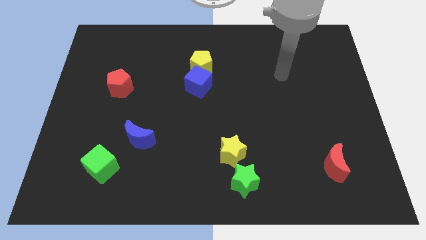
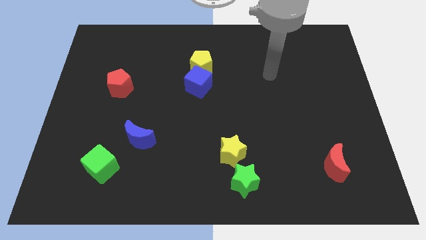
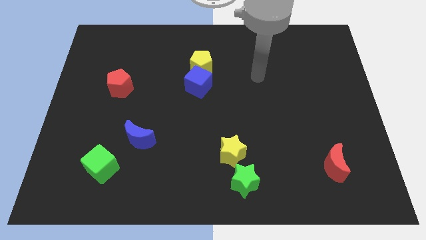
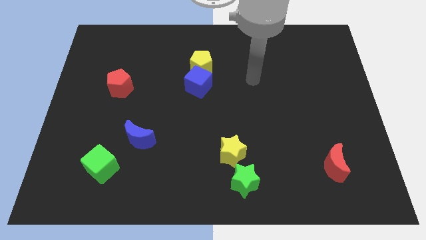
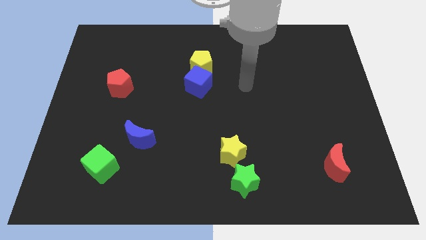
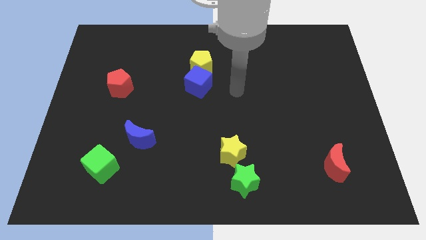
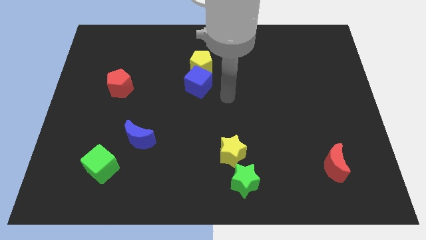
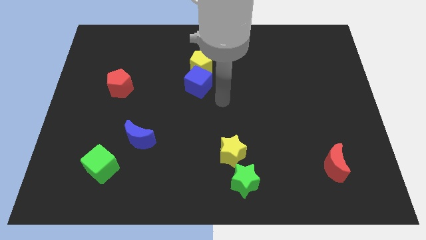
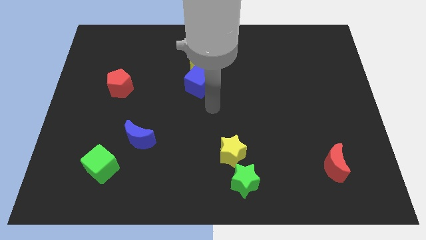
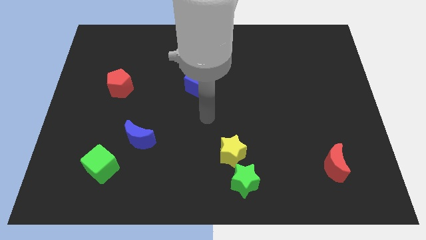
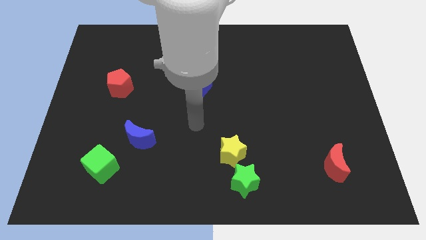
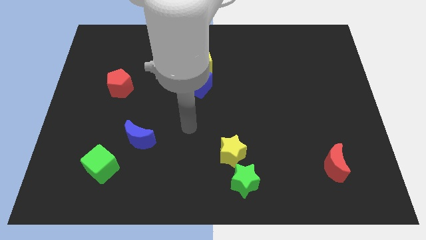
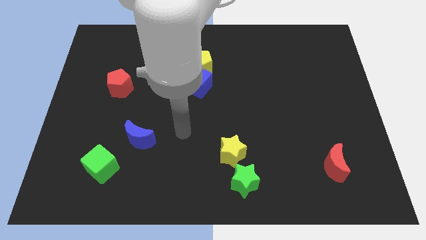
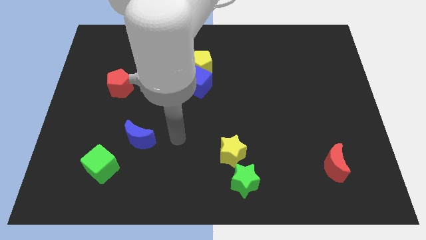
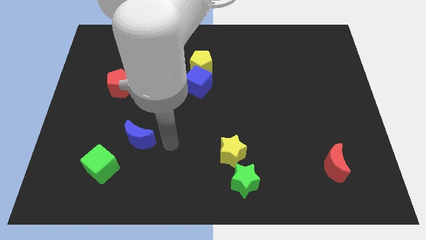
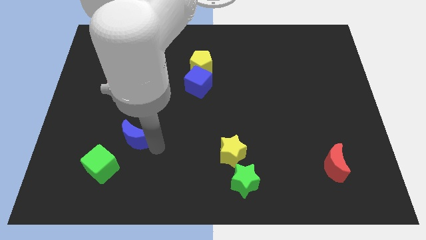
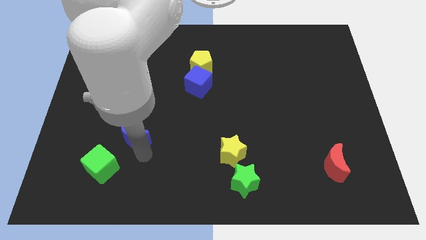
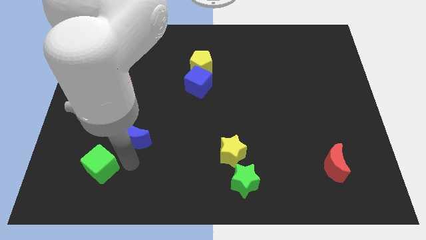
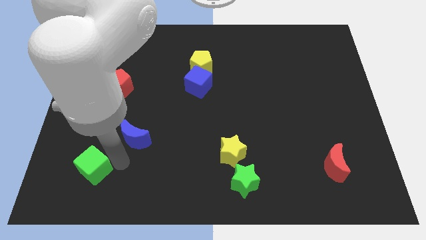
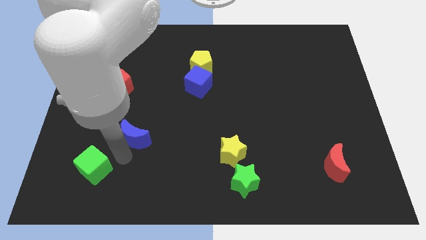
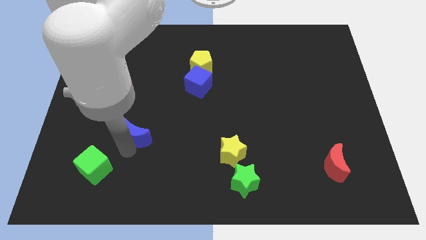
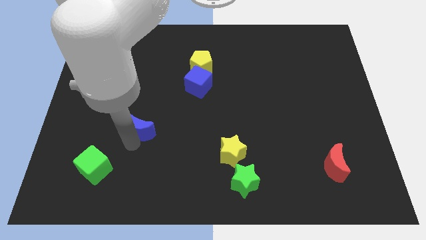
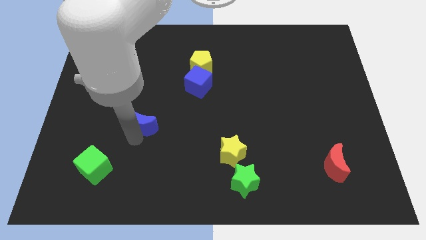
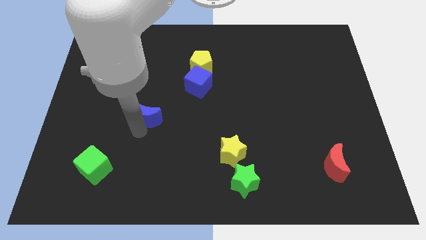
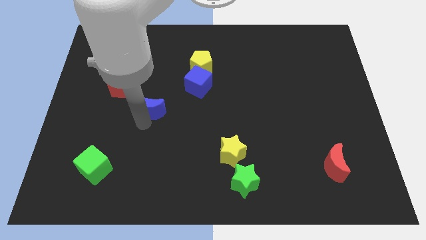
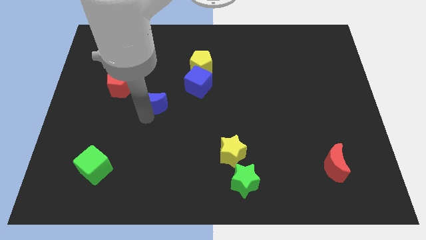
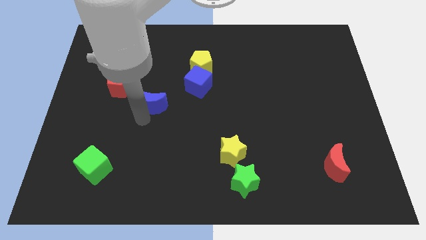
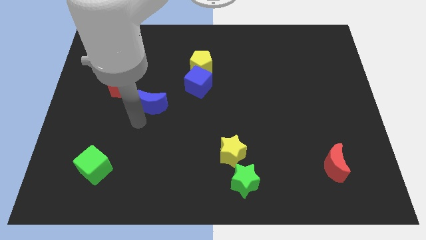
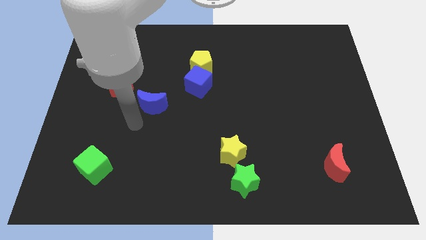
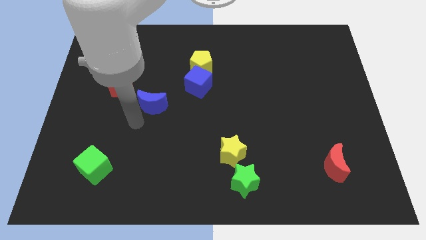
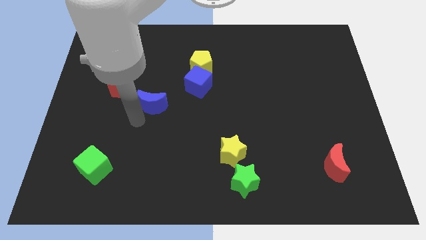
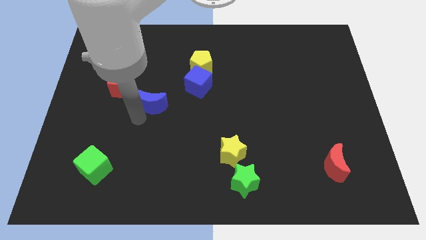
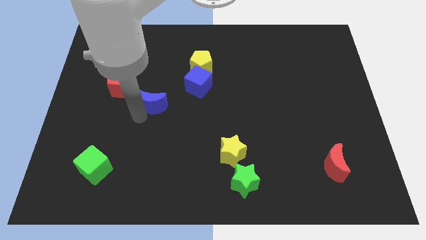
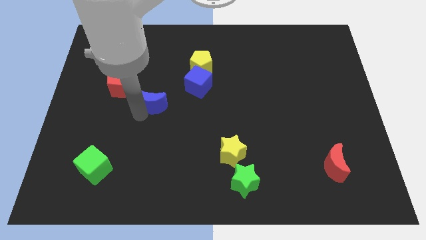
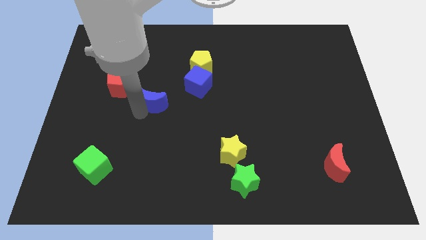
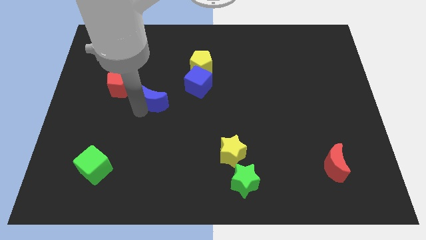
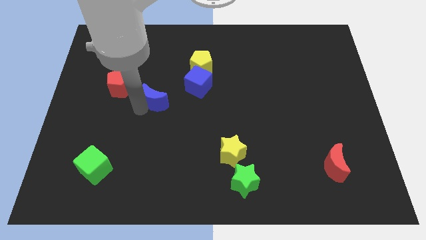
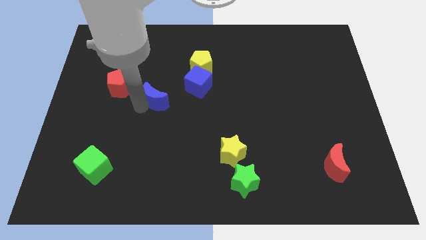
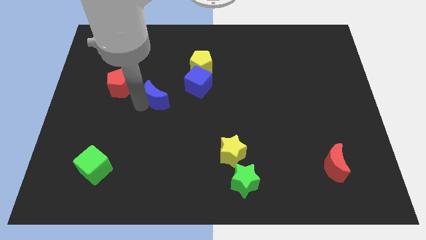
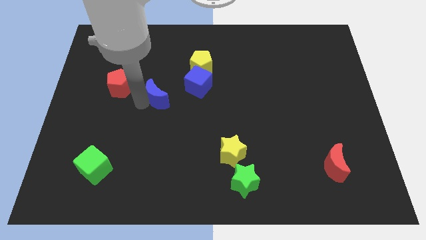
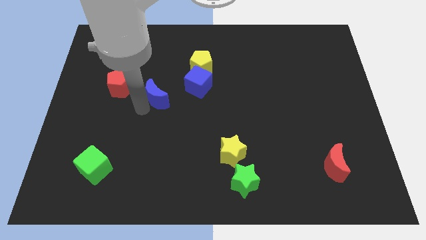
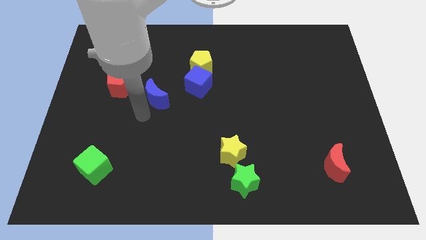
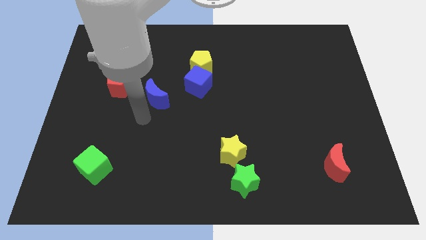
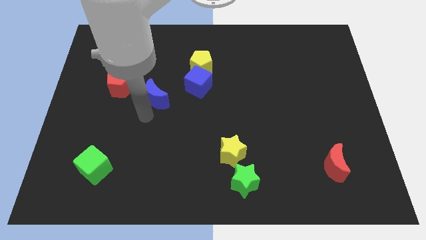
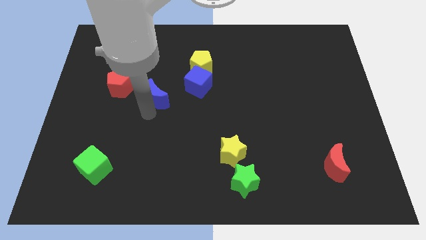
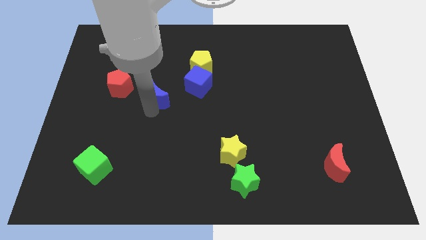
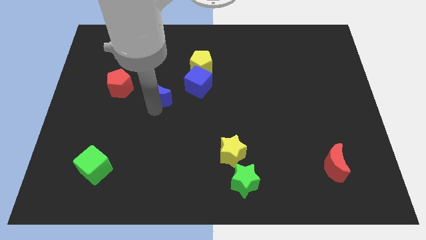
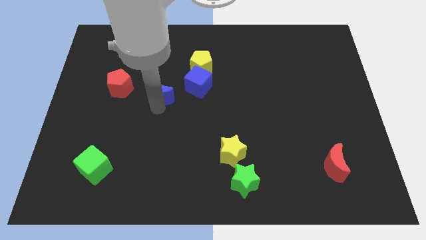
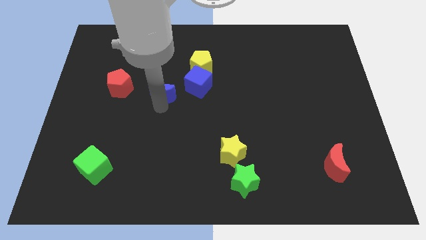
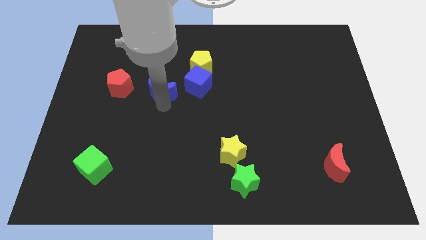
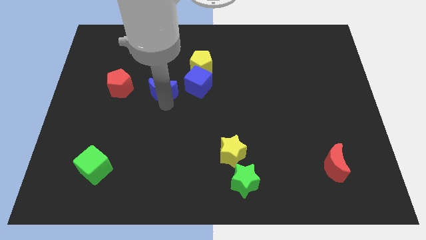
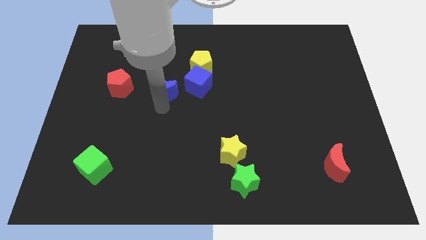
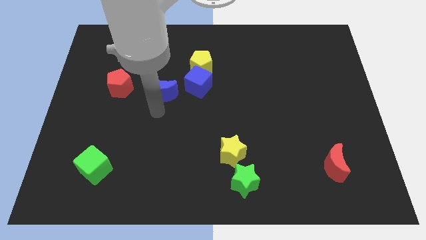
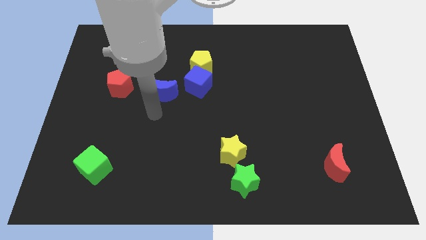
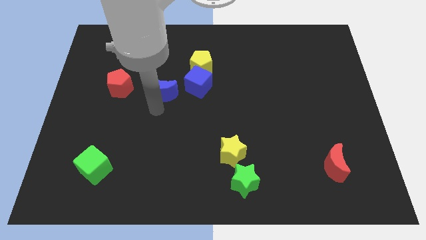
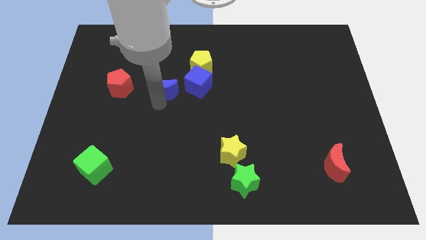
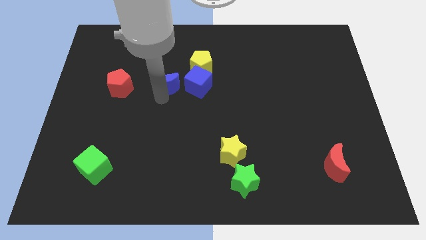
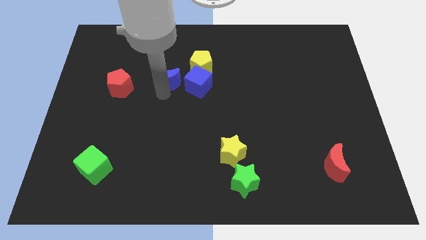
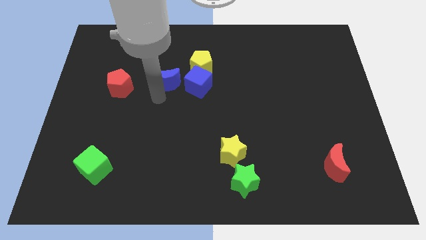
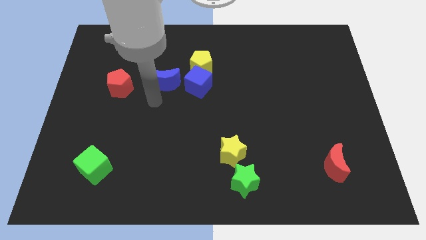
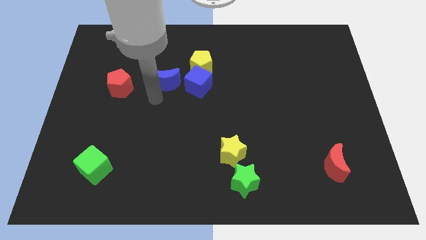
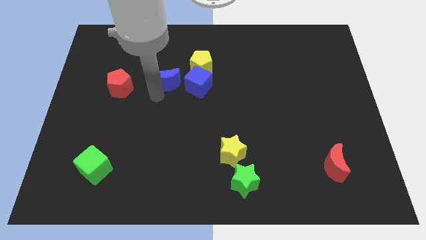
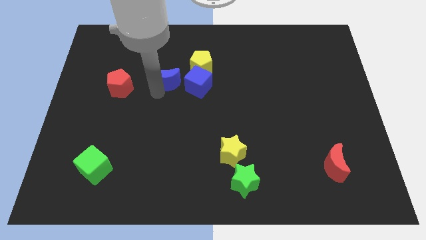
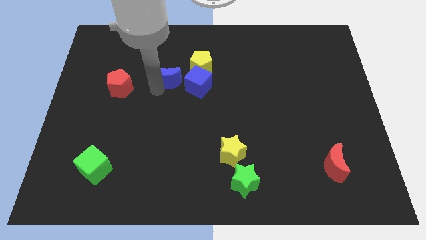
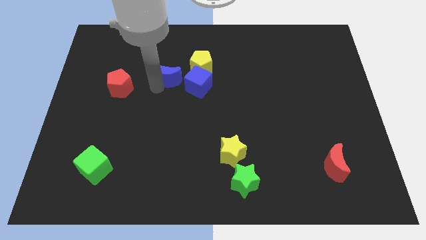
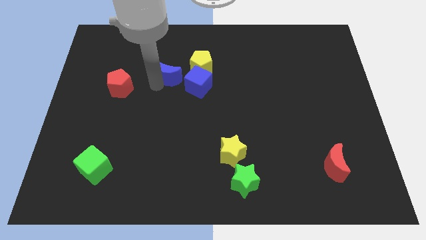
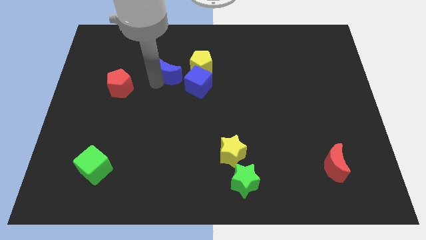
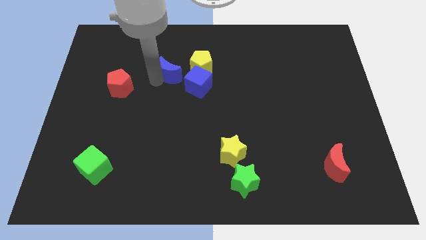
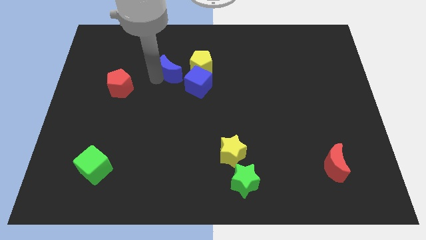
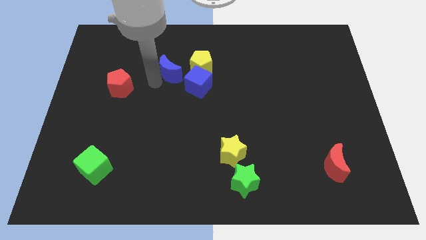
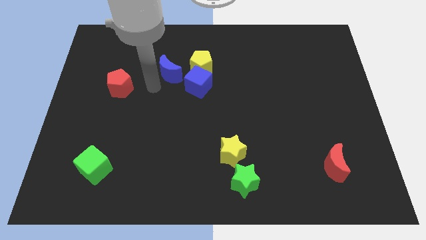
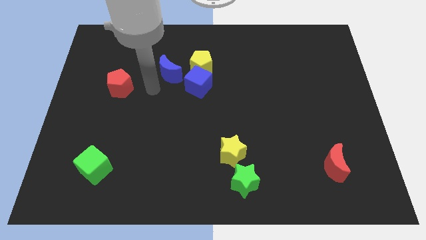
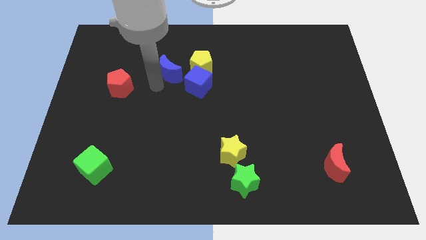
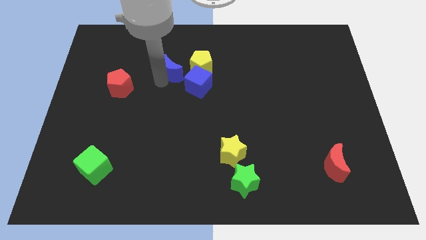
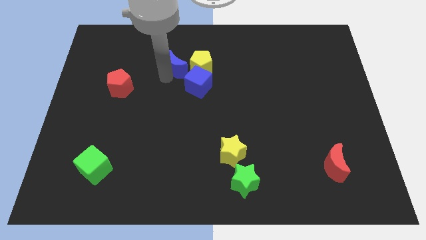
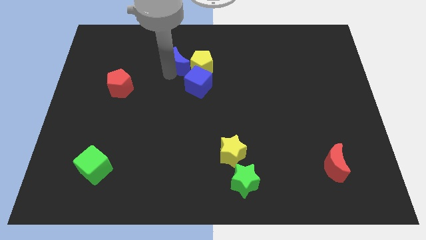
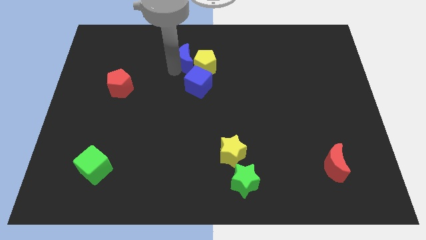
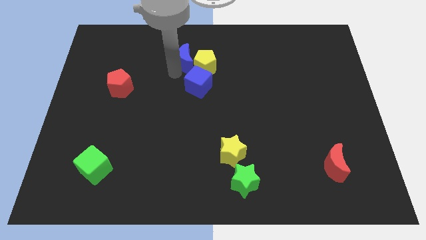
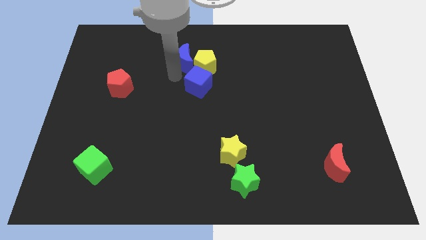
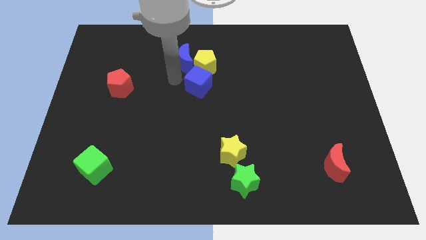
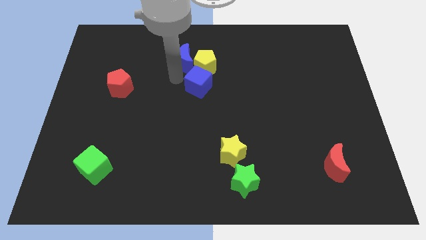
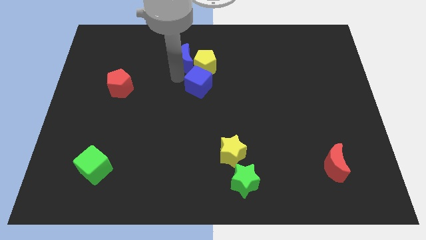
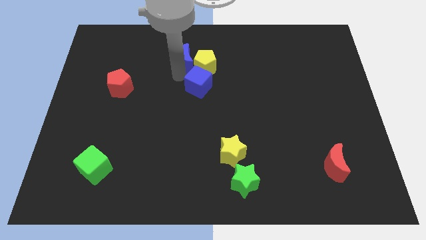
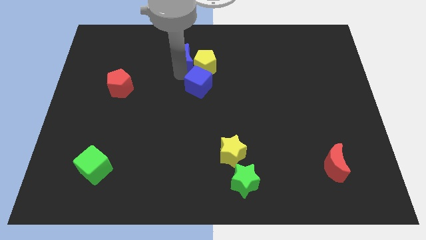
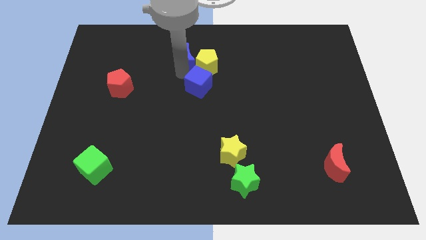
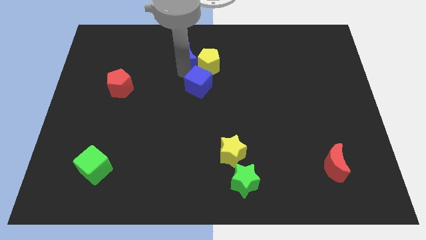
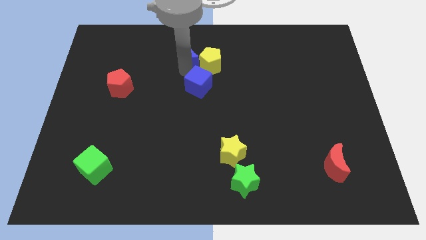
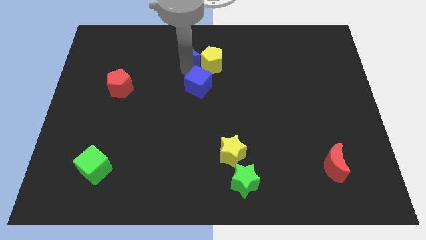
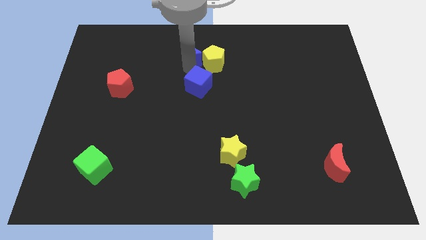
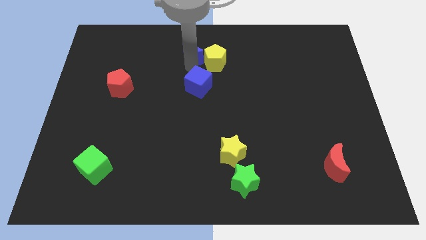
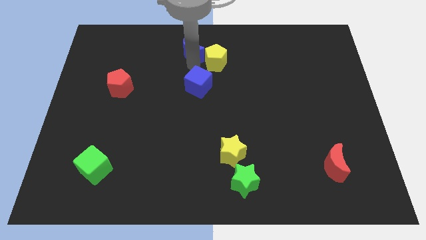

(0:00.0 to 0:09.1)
push the blue moon to the towards your base
